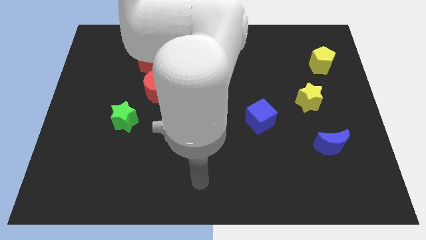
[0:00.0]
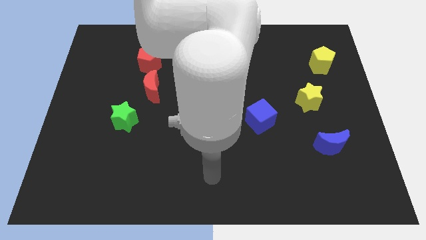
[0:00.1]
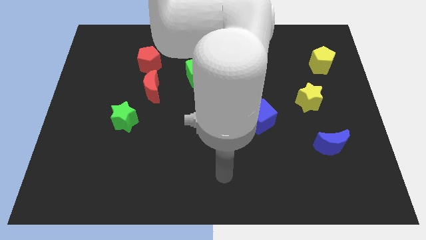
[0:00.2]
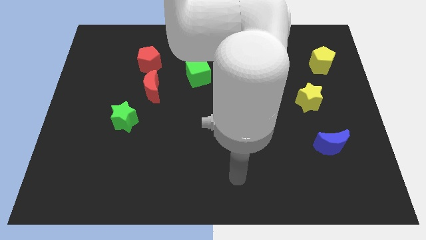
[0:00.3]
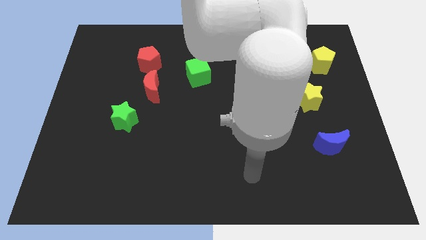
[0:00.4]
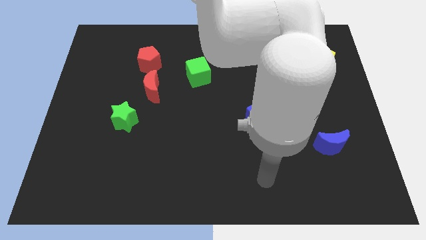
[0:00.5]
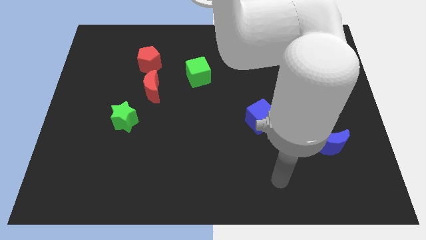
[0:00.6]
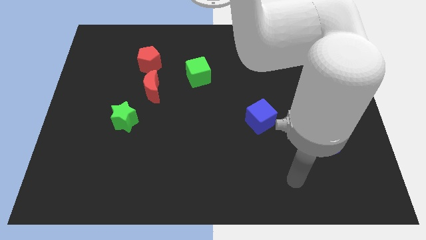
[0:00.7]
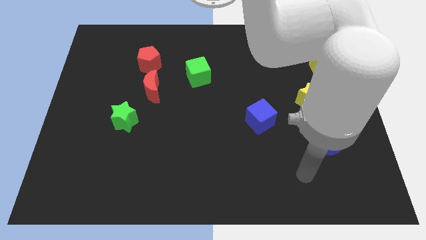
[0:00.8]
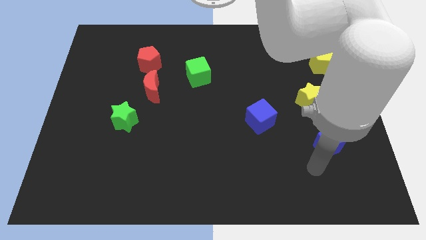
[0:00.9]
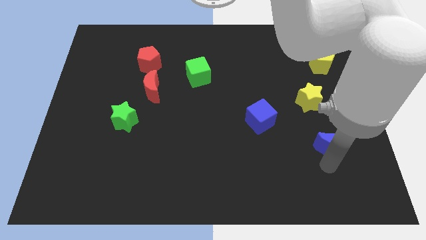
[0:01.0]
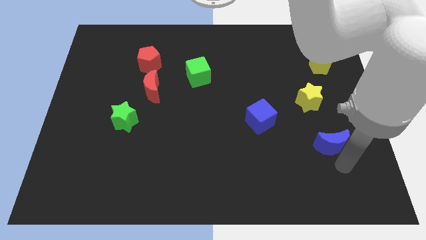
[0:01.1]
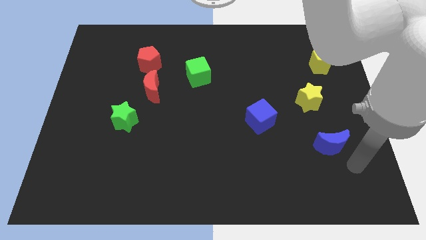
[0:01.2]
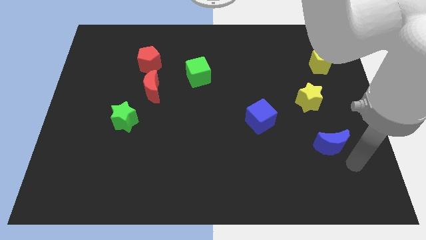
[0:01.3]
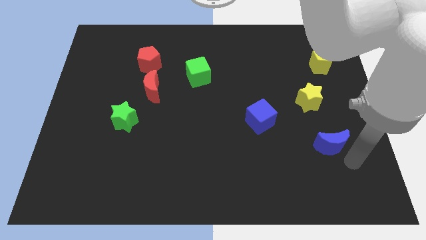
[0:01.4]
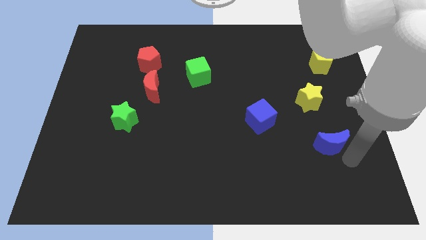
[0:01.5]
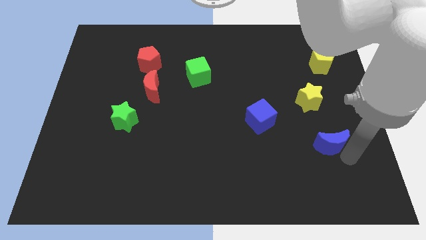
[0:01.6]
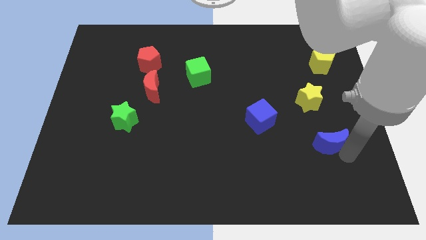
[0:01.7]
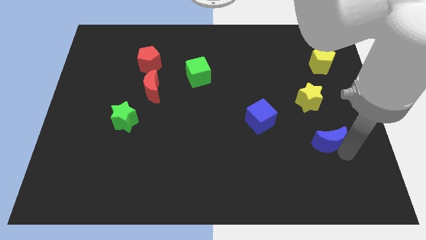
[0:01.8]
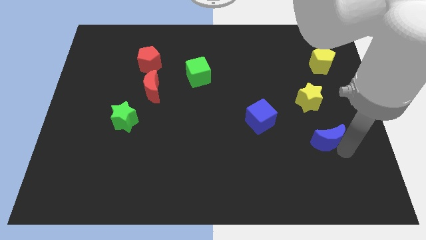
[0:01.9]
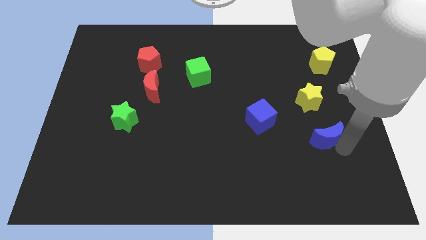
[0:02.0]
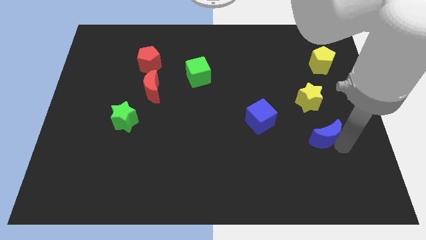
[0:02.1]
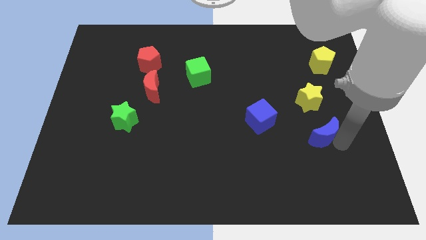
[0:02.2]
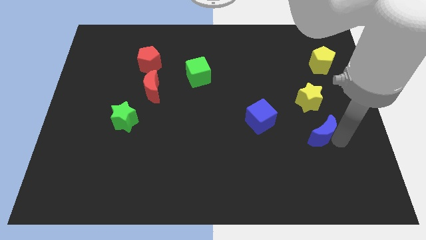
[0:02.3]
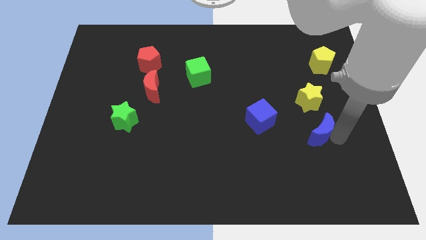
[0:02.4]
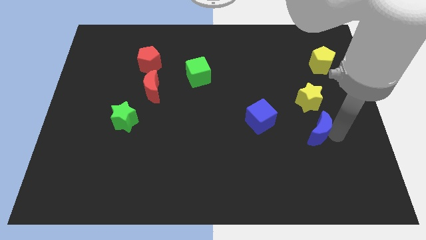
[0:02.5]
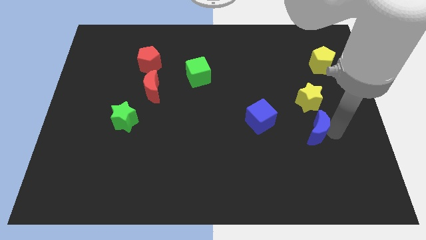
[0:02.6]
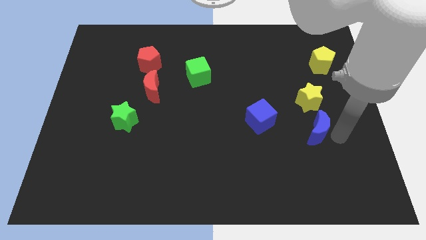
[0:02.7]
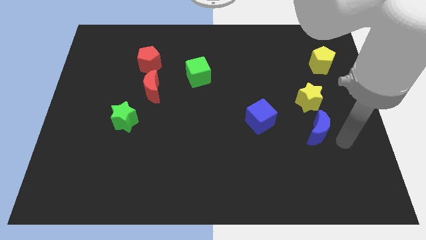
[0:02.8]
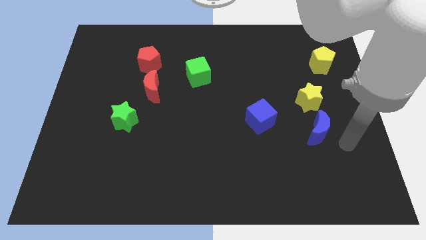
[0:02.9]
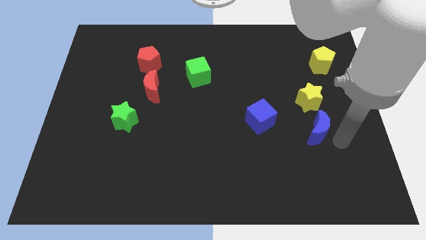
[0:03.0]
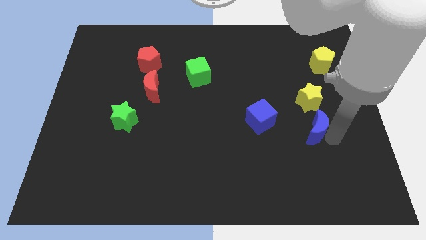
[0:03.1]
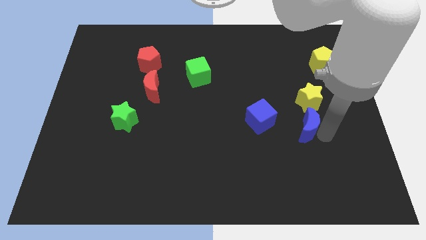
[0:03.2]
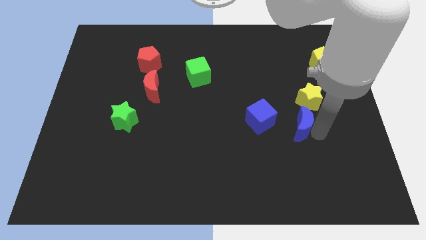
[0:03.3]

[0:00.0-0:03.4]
move the blue moon up and left diagonally somewhat

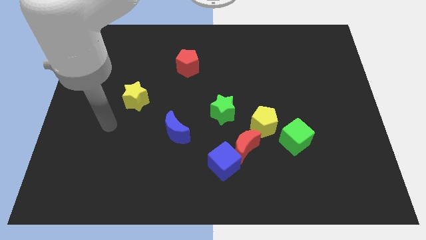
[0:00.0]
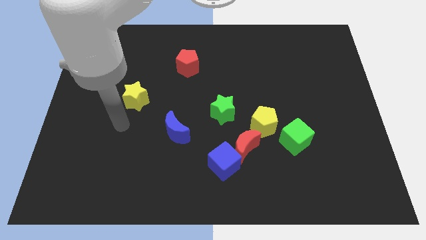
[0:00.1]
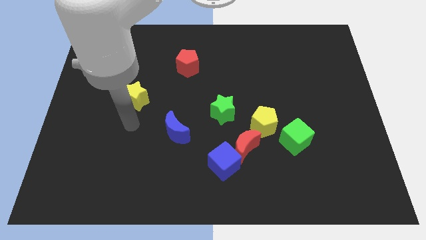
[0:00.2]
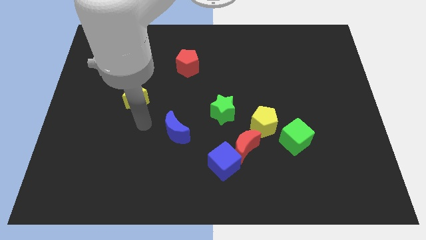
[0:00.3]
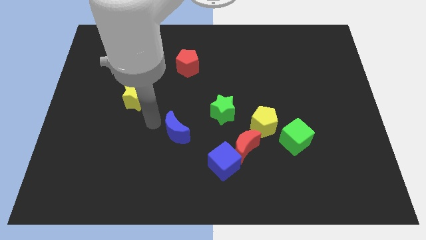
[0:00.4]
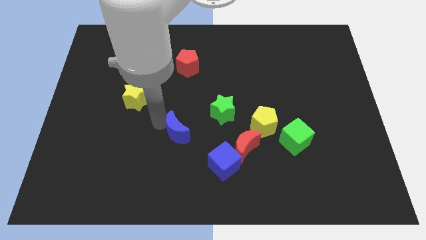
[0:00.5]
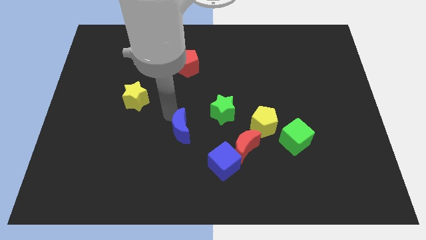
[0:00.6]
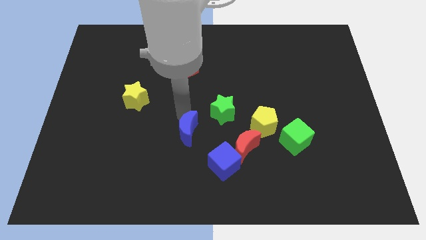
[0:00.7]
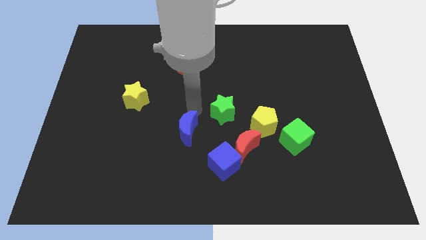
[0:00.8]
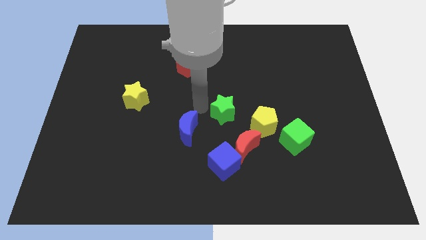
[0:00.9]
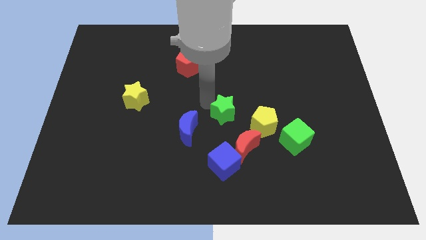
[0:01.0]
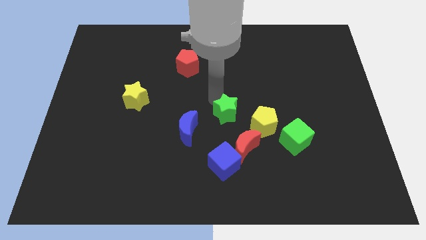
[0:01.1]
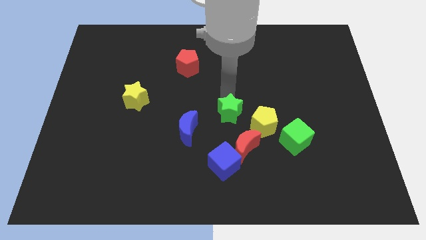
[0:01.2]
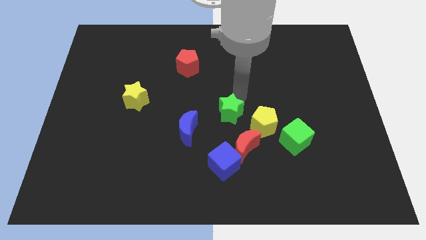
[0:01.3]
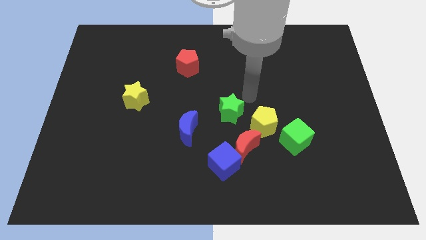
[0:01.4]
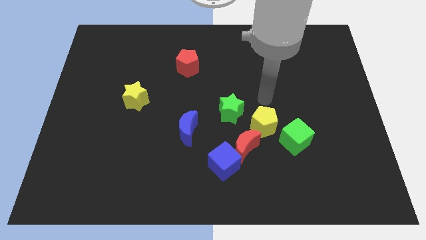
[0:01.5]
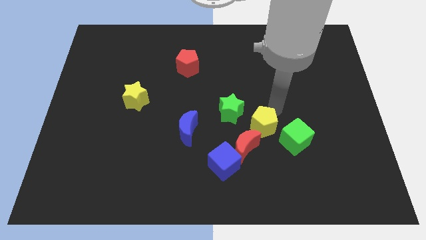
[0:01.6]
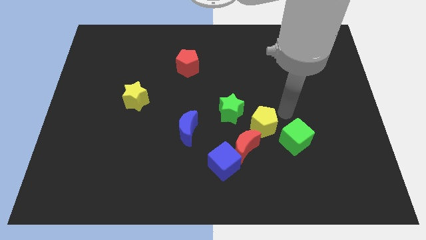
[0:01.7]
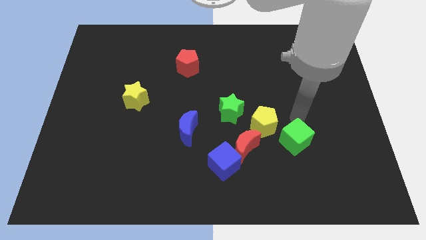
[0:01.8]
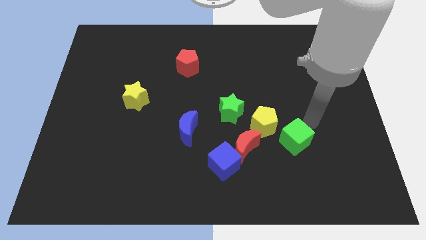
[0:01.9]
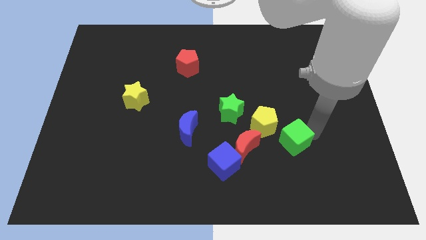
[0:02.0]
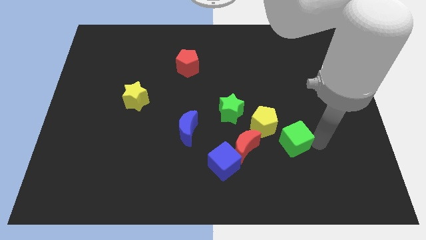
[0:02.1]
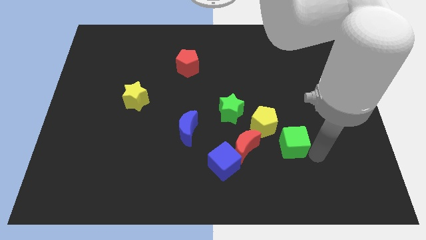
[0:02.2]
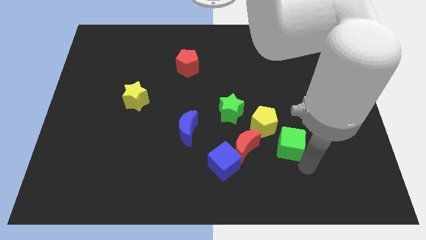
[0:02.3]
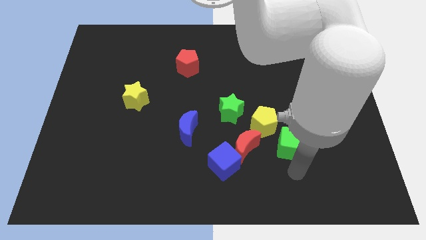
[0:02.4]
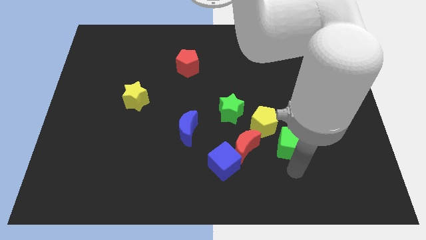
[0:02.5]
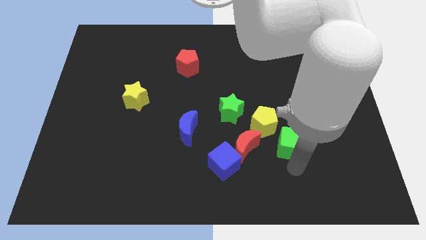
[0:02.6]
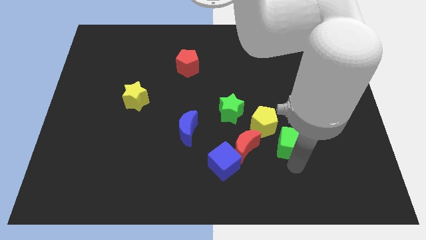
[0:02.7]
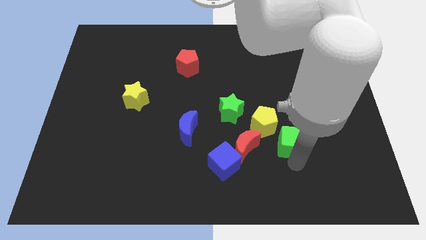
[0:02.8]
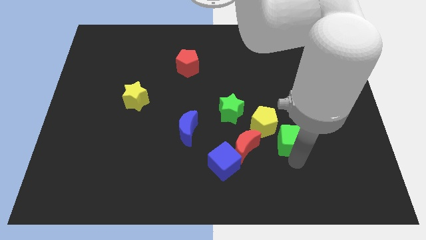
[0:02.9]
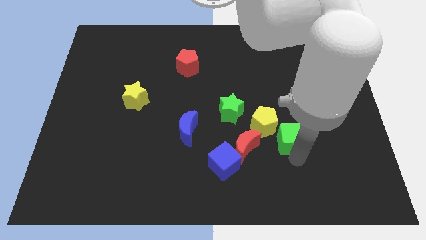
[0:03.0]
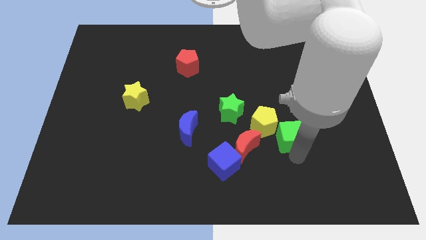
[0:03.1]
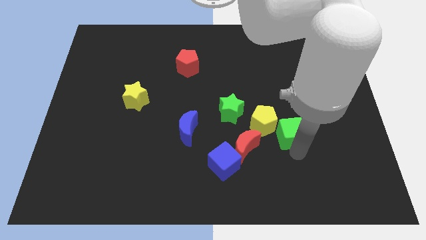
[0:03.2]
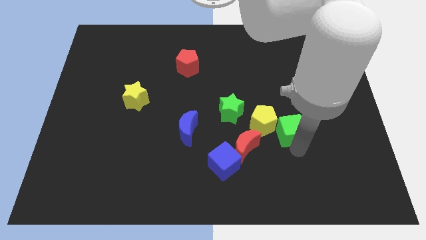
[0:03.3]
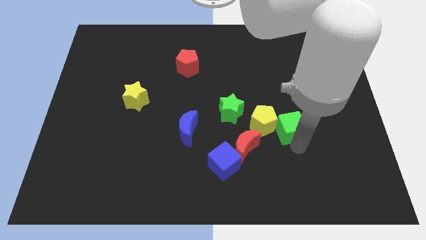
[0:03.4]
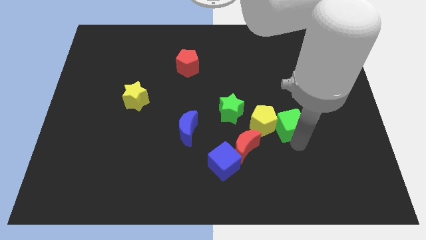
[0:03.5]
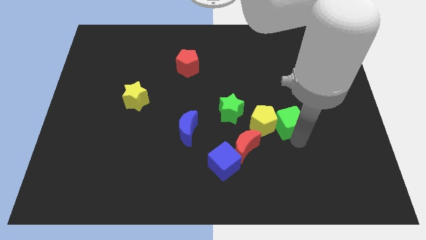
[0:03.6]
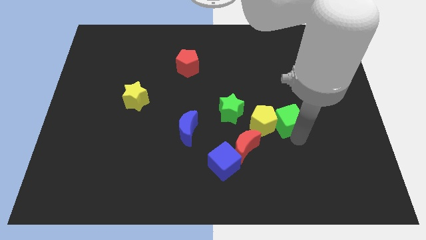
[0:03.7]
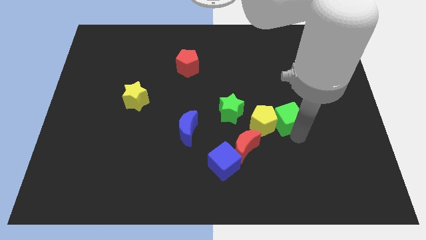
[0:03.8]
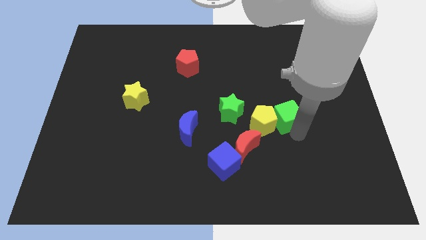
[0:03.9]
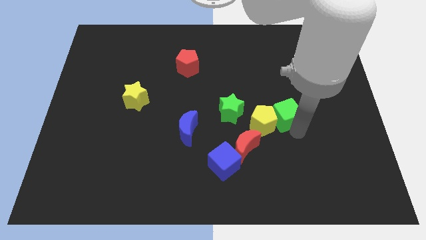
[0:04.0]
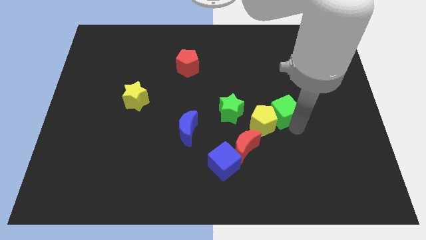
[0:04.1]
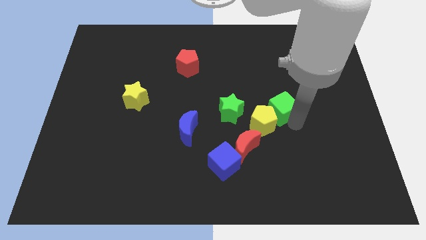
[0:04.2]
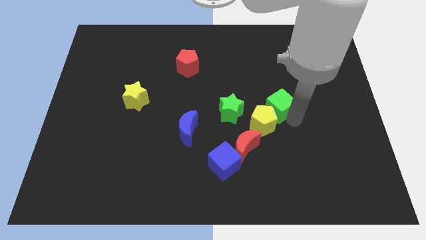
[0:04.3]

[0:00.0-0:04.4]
push the green cube somewhat upwards and left

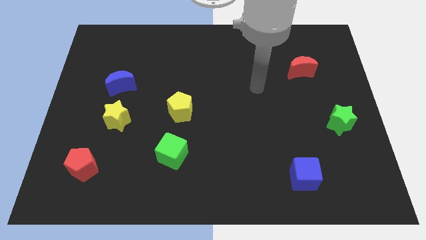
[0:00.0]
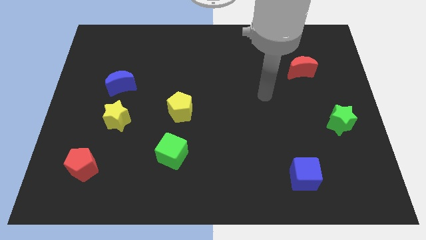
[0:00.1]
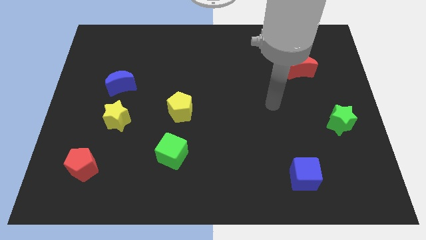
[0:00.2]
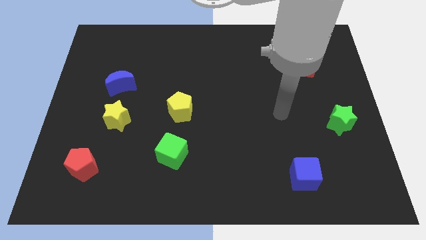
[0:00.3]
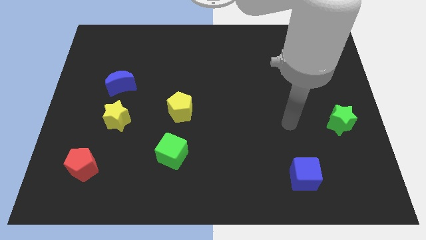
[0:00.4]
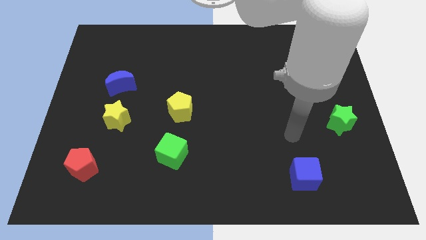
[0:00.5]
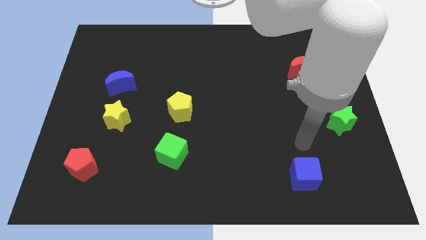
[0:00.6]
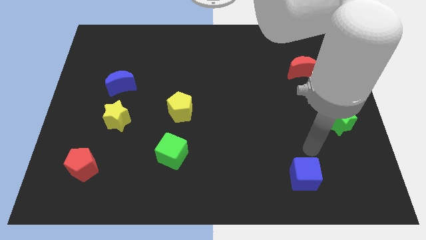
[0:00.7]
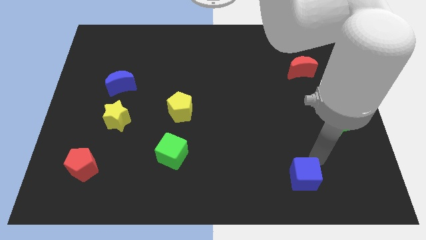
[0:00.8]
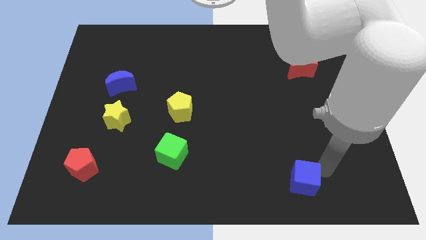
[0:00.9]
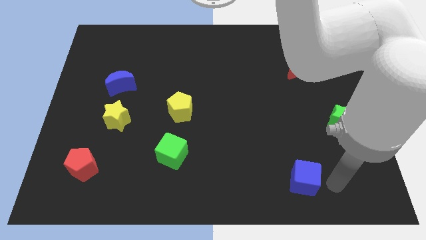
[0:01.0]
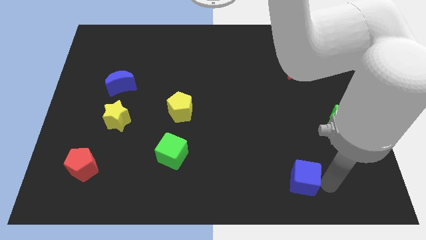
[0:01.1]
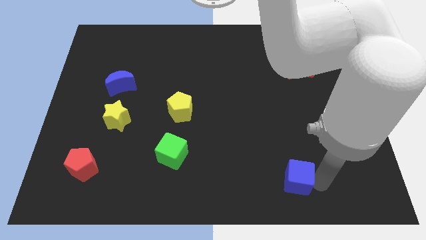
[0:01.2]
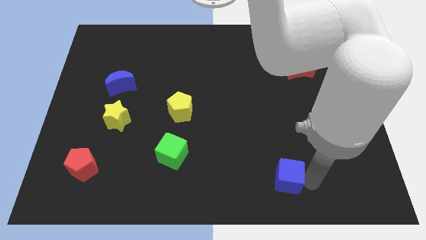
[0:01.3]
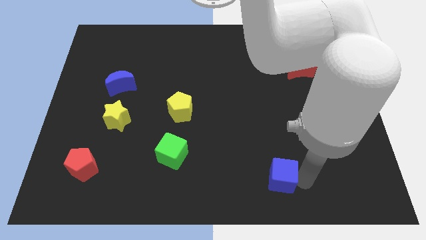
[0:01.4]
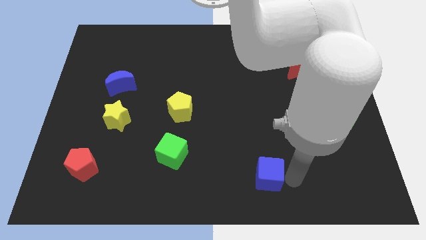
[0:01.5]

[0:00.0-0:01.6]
move the blue cube a little left
